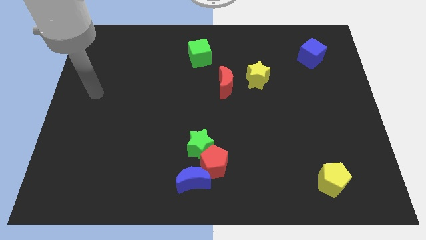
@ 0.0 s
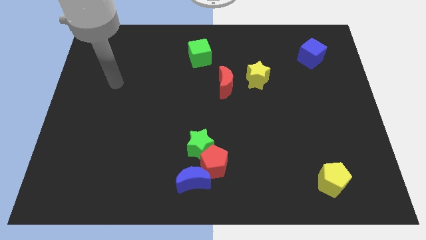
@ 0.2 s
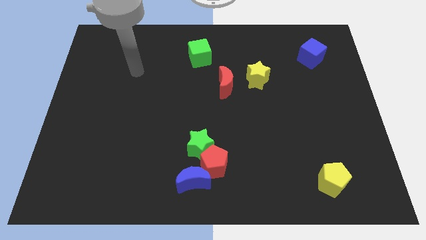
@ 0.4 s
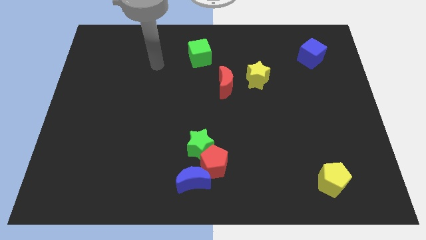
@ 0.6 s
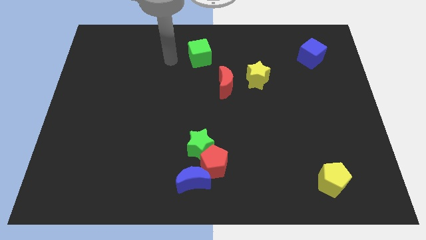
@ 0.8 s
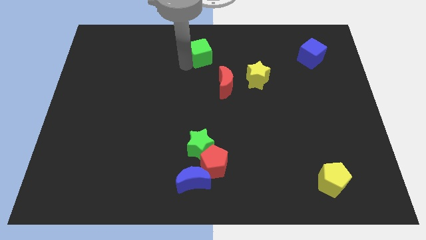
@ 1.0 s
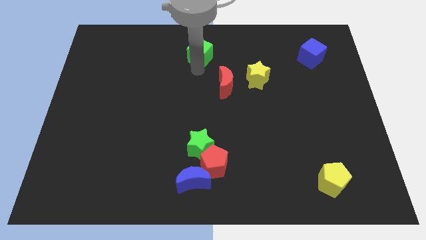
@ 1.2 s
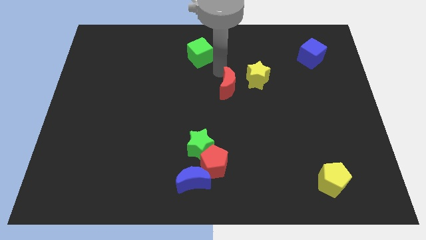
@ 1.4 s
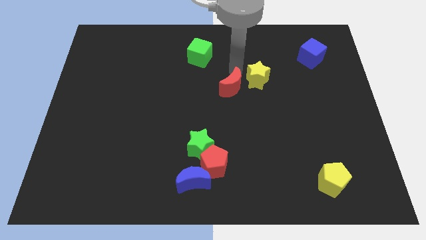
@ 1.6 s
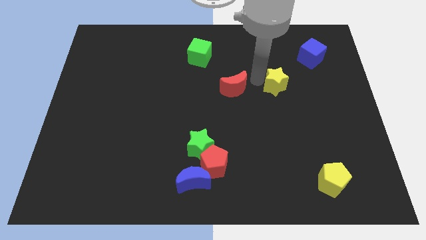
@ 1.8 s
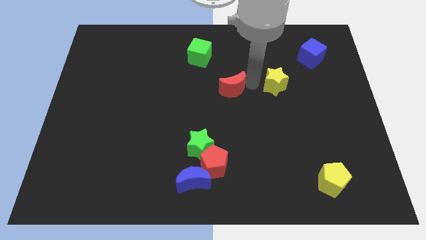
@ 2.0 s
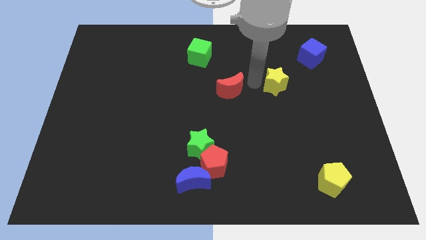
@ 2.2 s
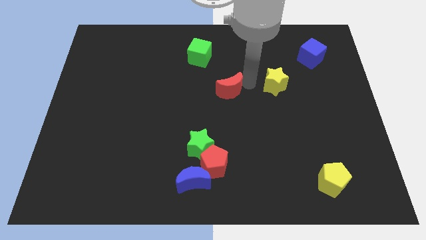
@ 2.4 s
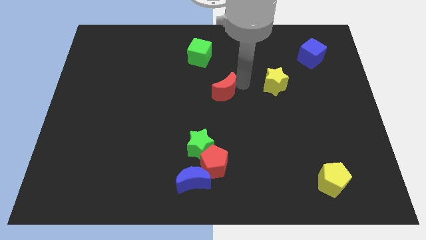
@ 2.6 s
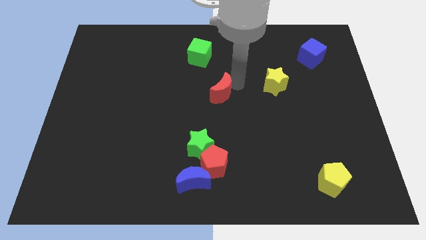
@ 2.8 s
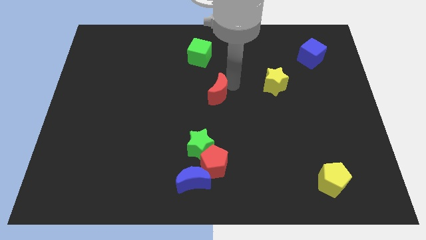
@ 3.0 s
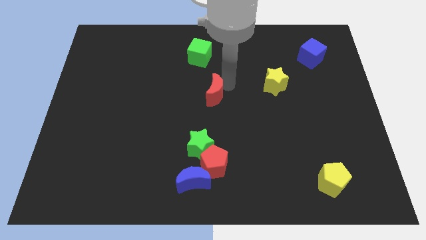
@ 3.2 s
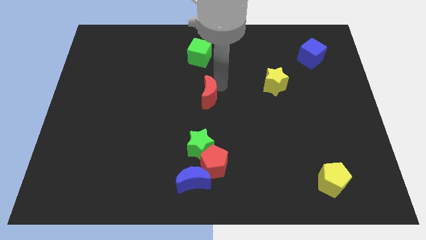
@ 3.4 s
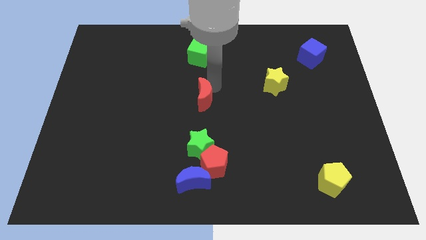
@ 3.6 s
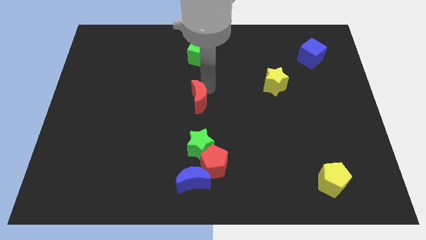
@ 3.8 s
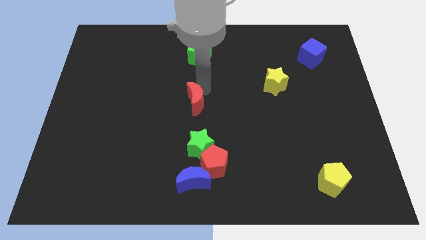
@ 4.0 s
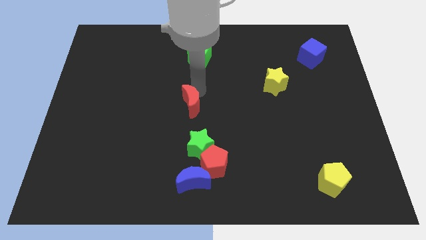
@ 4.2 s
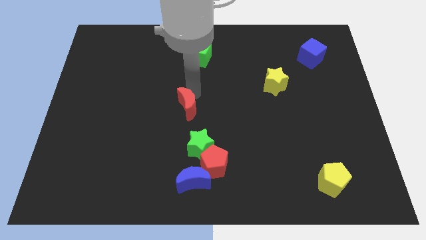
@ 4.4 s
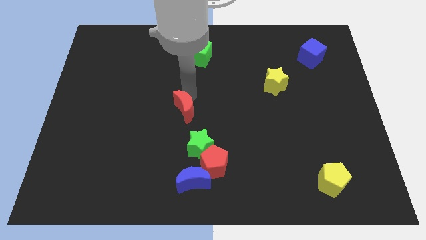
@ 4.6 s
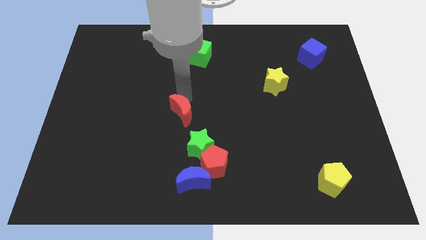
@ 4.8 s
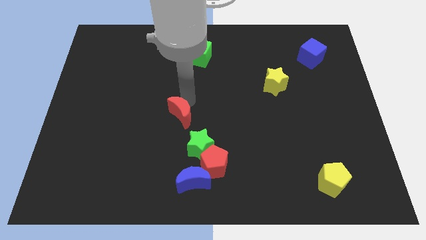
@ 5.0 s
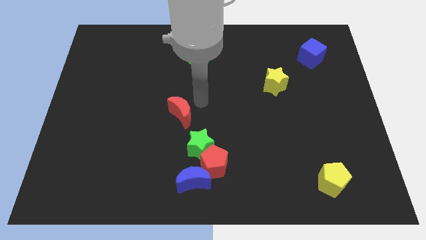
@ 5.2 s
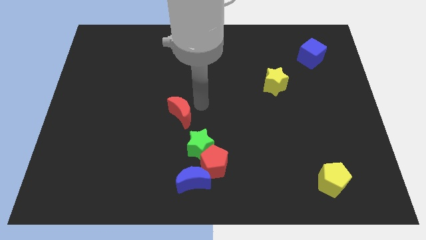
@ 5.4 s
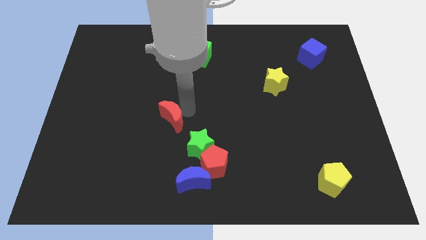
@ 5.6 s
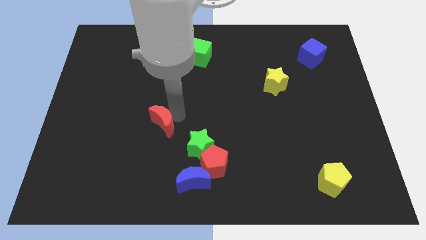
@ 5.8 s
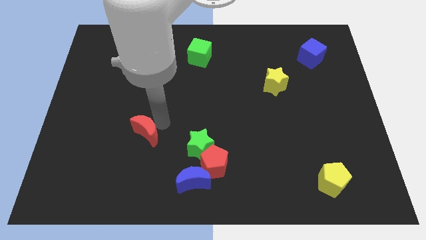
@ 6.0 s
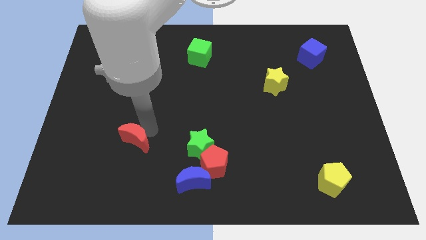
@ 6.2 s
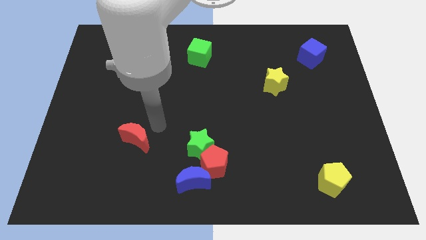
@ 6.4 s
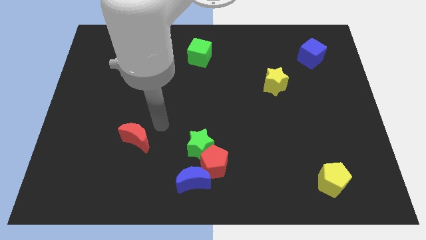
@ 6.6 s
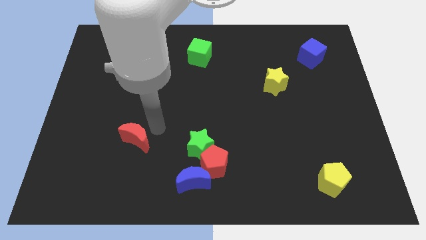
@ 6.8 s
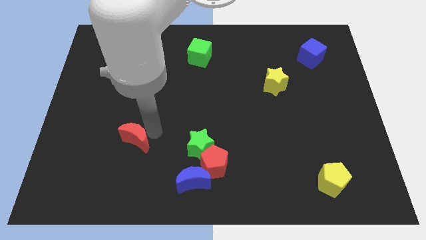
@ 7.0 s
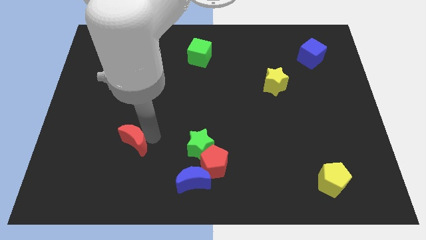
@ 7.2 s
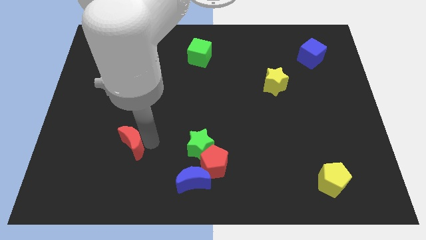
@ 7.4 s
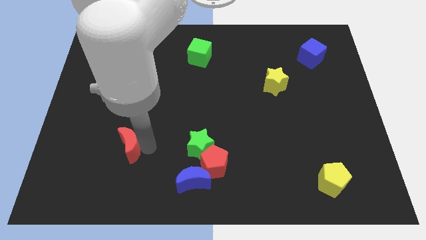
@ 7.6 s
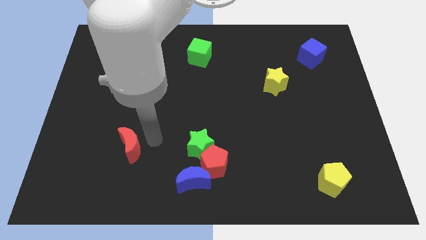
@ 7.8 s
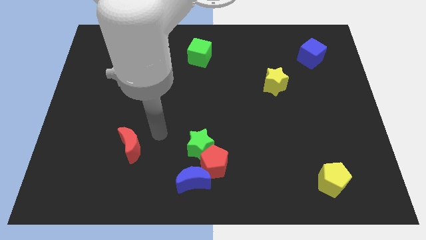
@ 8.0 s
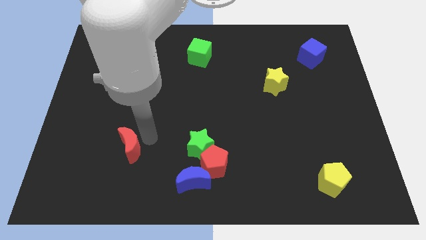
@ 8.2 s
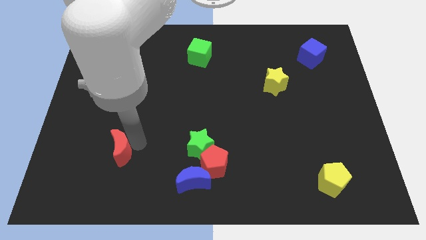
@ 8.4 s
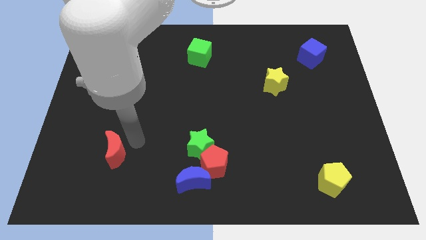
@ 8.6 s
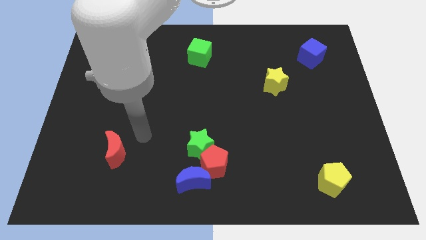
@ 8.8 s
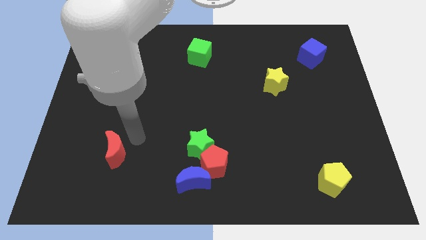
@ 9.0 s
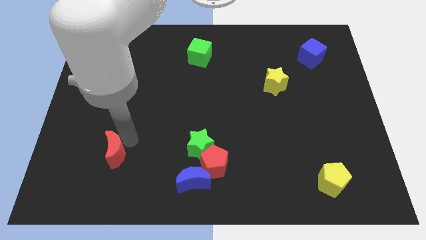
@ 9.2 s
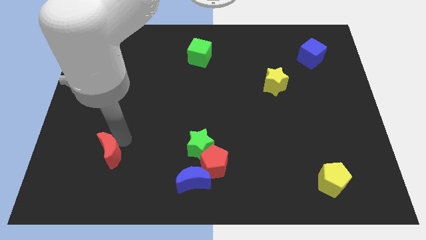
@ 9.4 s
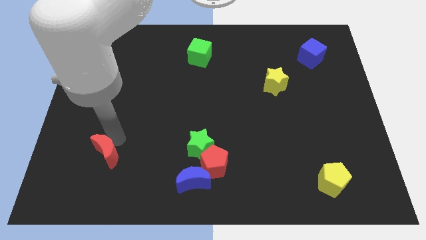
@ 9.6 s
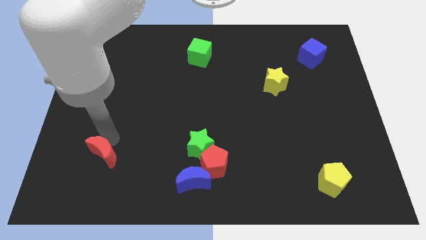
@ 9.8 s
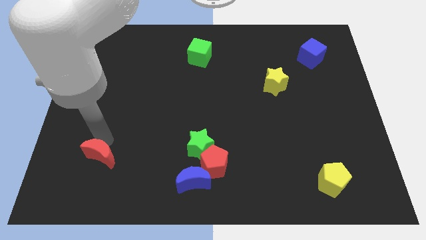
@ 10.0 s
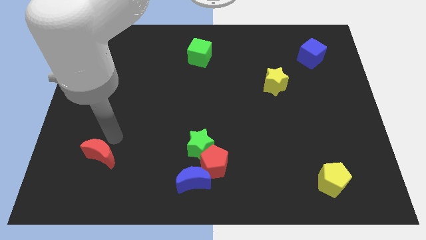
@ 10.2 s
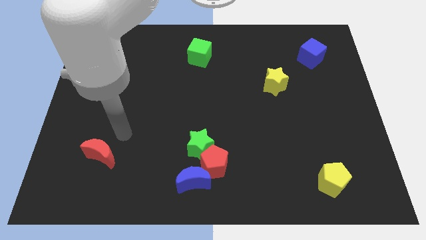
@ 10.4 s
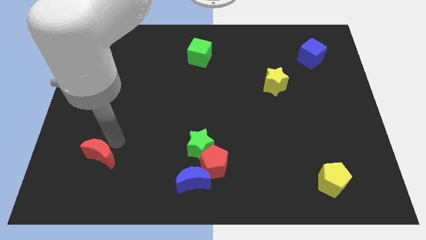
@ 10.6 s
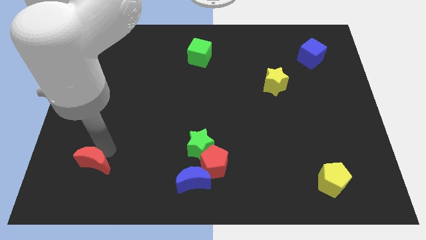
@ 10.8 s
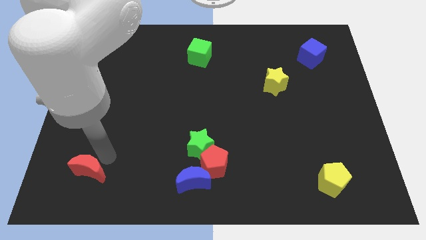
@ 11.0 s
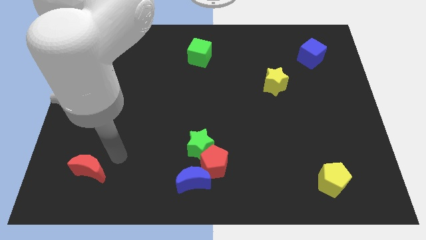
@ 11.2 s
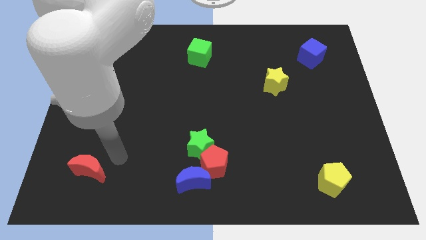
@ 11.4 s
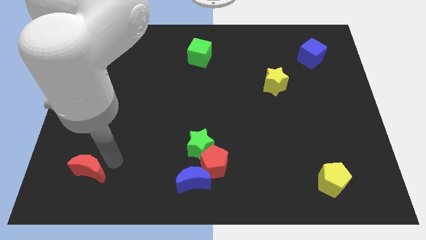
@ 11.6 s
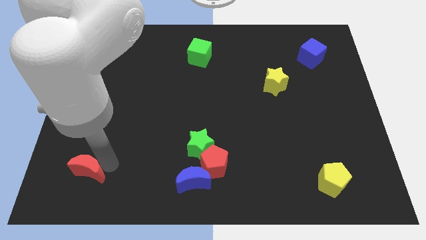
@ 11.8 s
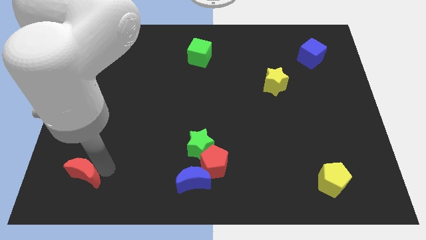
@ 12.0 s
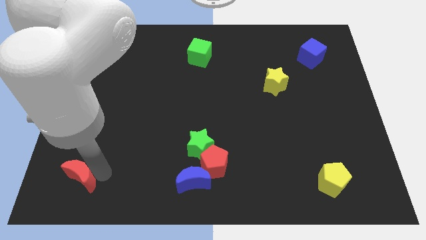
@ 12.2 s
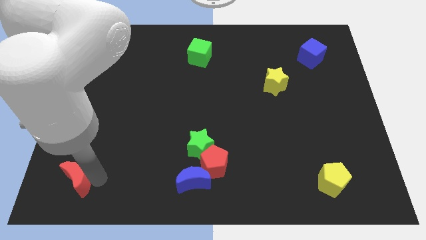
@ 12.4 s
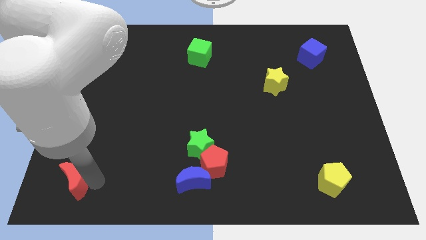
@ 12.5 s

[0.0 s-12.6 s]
push the red moon to the bottom left of the board
